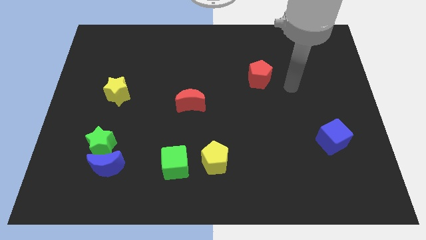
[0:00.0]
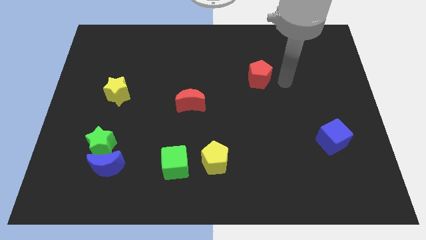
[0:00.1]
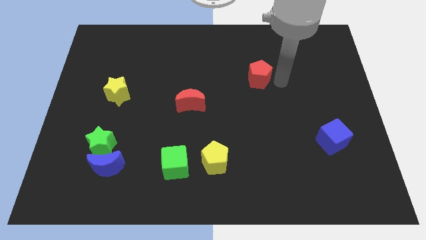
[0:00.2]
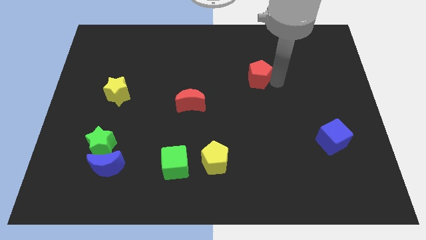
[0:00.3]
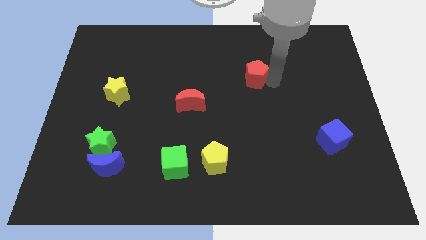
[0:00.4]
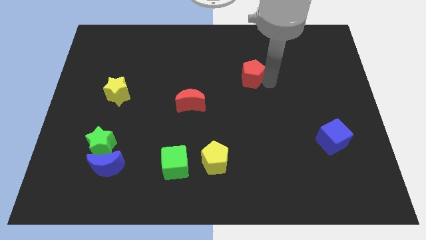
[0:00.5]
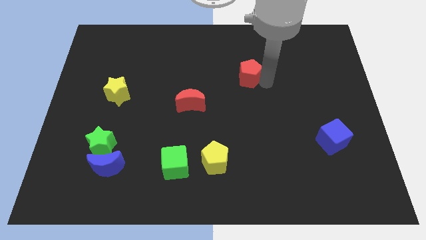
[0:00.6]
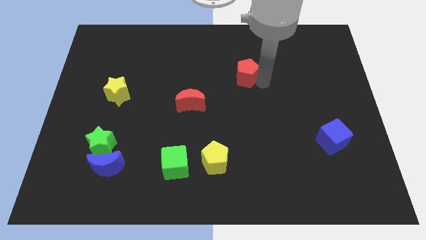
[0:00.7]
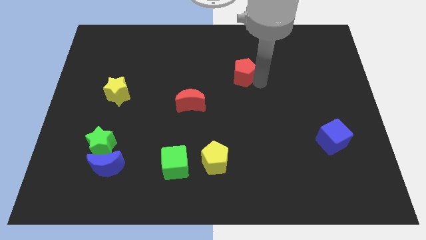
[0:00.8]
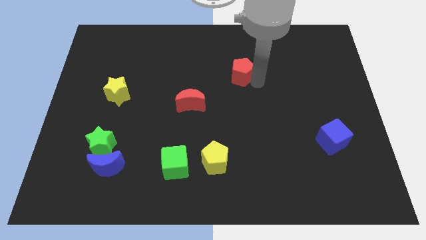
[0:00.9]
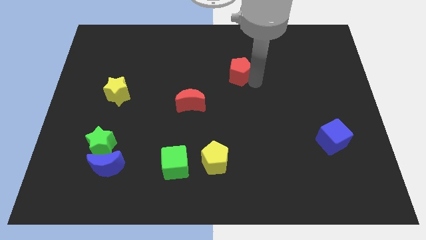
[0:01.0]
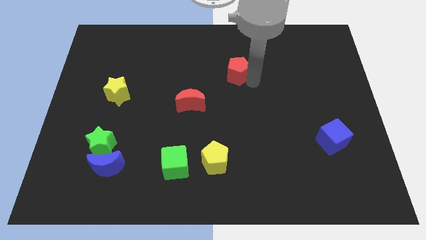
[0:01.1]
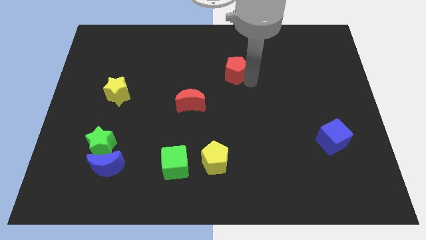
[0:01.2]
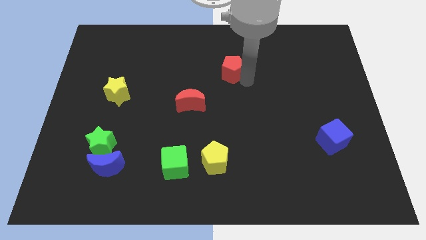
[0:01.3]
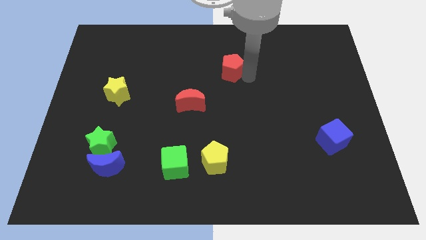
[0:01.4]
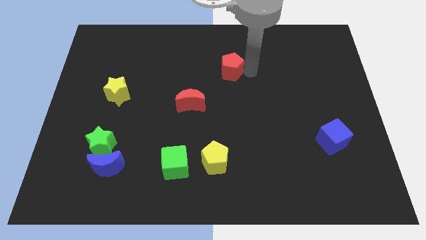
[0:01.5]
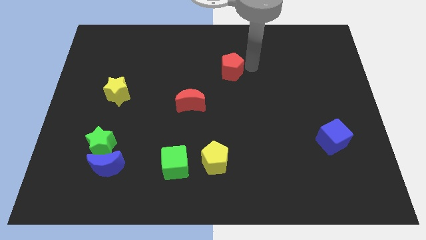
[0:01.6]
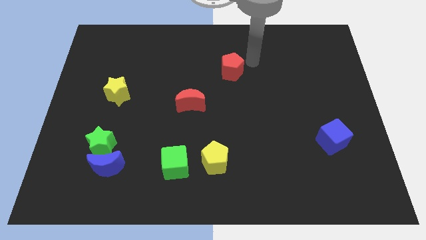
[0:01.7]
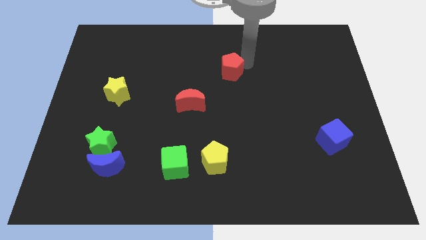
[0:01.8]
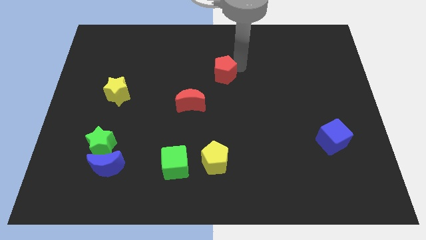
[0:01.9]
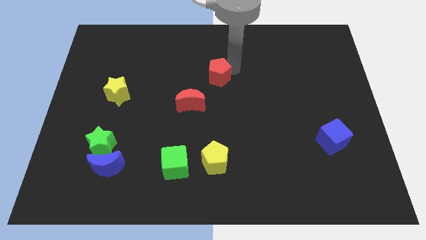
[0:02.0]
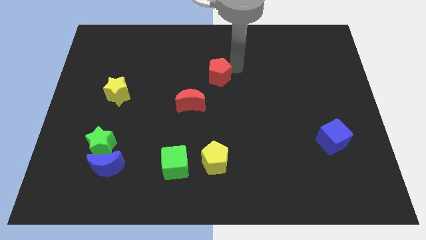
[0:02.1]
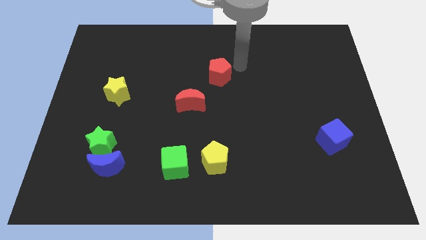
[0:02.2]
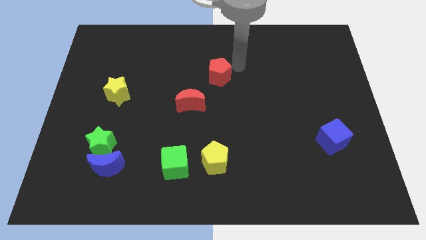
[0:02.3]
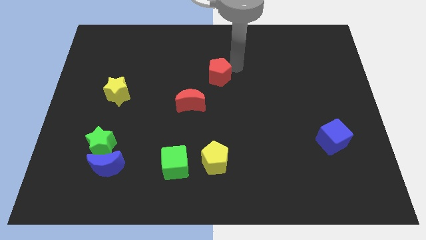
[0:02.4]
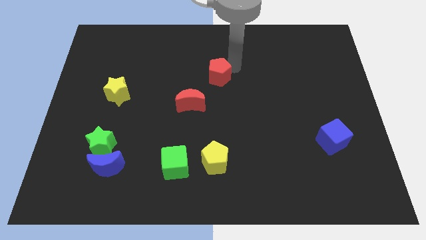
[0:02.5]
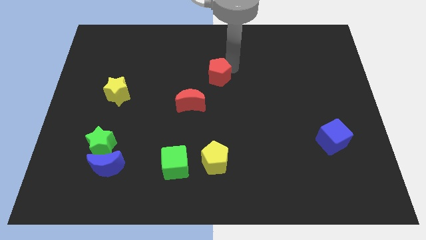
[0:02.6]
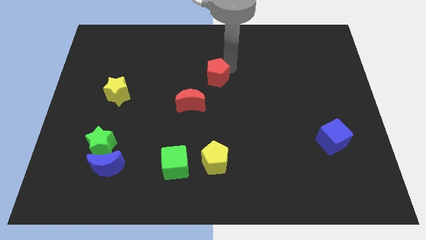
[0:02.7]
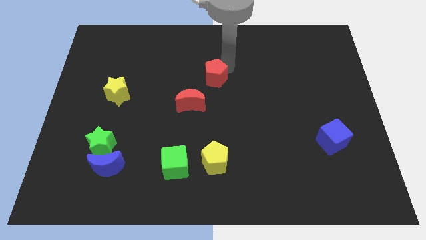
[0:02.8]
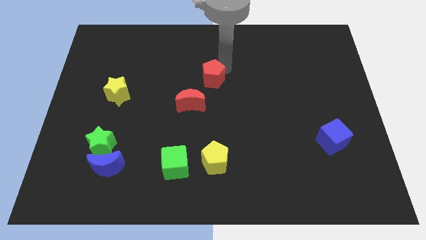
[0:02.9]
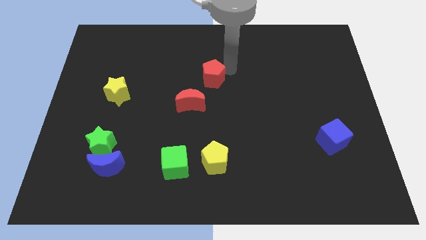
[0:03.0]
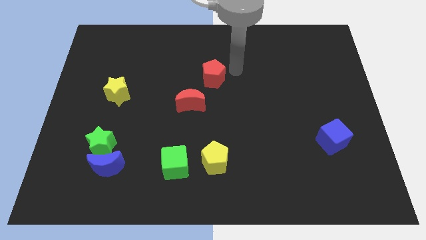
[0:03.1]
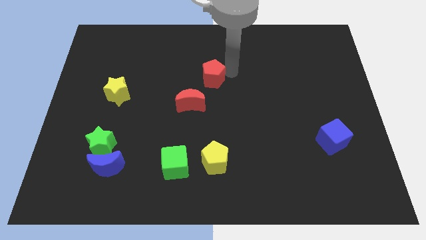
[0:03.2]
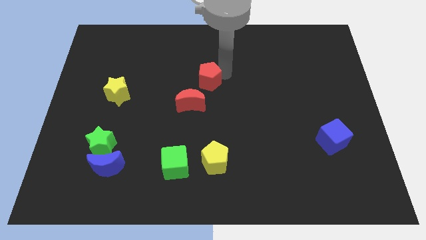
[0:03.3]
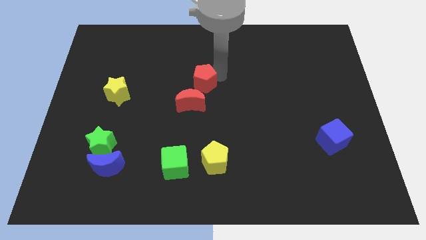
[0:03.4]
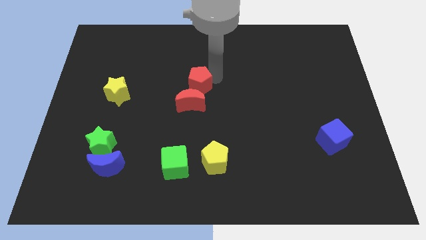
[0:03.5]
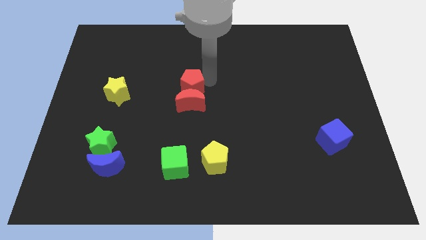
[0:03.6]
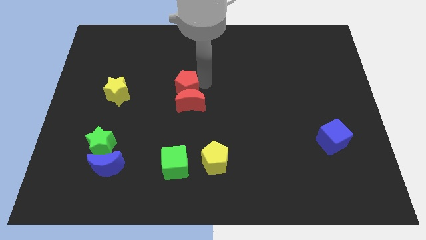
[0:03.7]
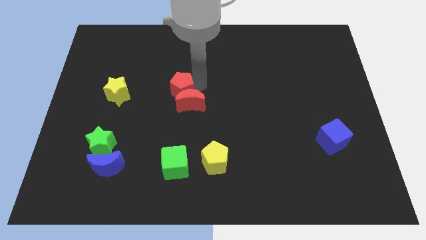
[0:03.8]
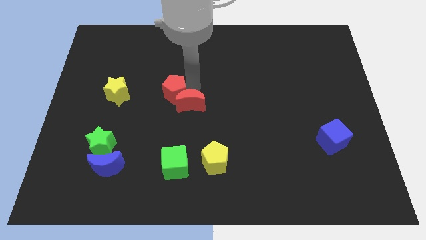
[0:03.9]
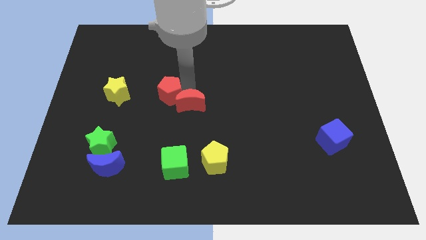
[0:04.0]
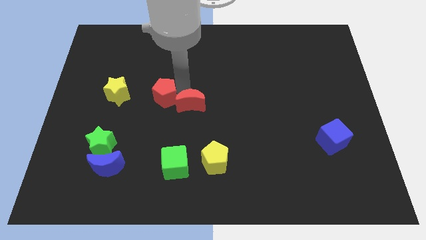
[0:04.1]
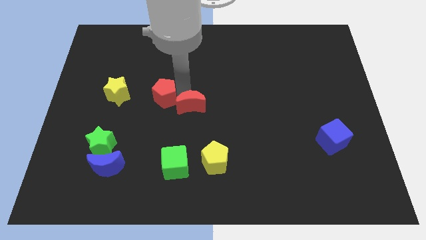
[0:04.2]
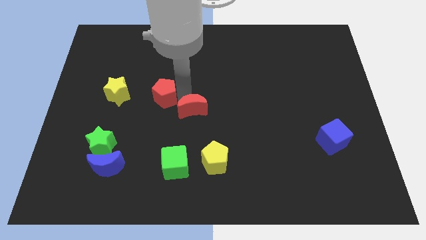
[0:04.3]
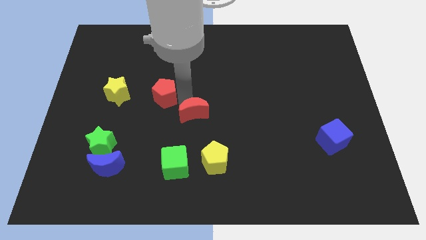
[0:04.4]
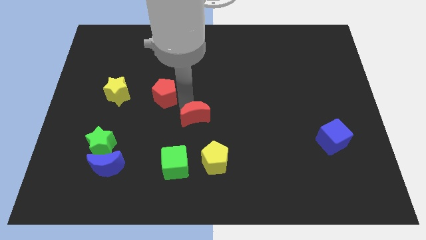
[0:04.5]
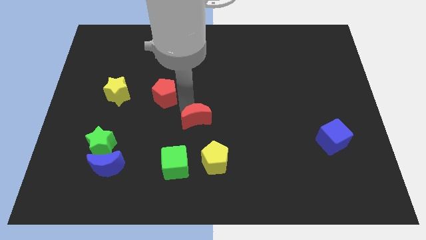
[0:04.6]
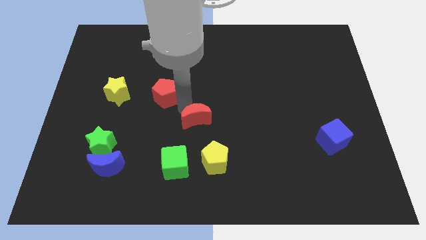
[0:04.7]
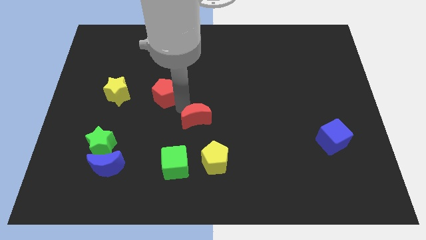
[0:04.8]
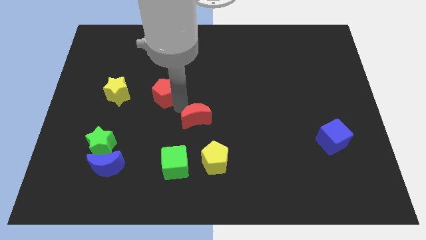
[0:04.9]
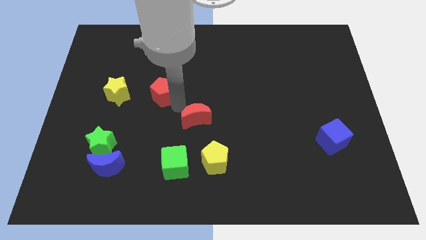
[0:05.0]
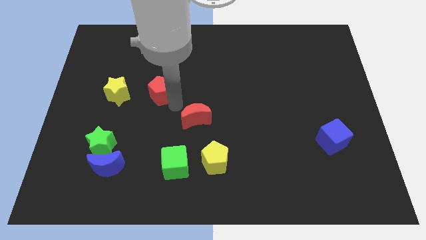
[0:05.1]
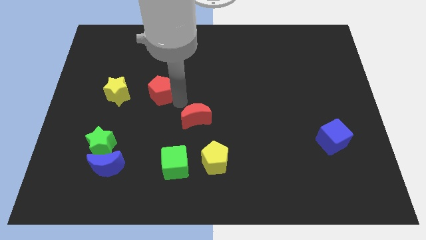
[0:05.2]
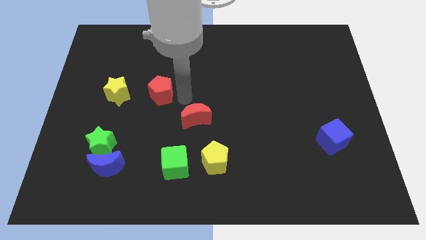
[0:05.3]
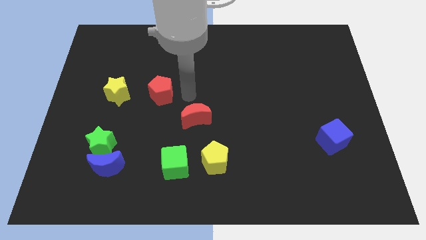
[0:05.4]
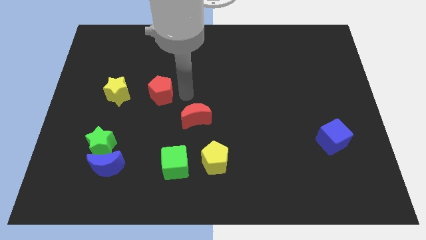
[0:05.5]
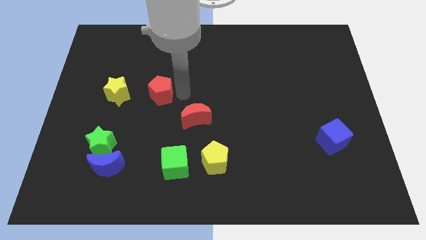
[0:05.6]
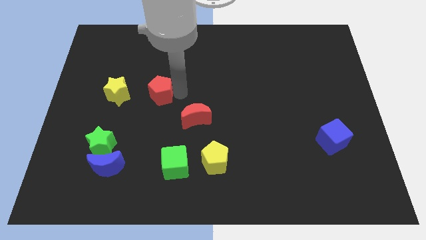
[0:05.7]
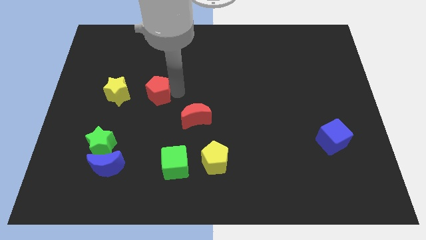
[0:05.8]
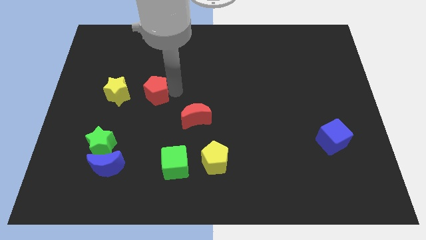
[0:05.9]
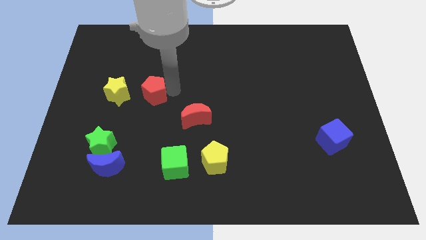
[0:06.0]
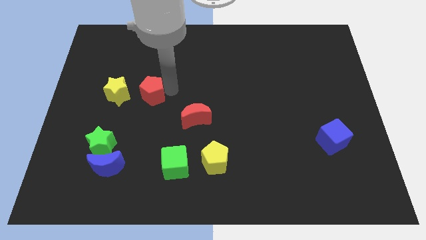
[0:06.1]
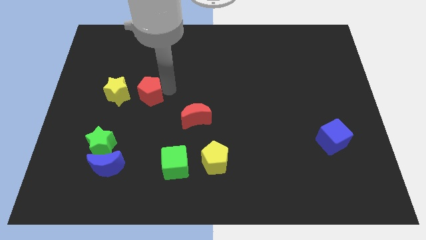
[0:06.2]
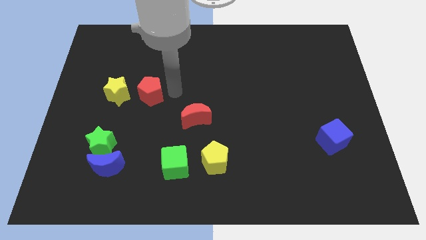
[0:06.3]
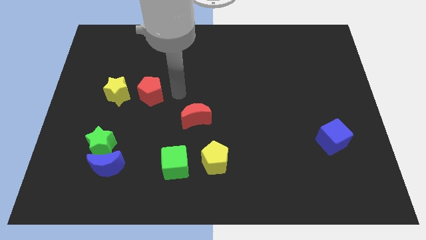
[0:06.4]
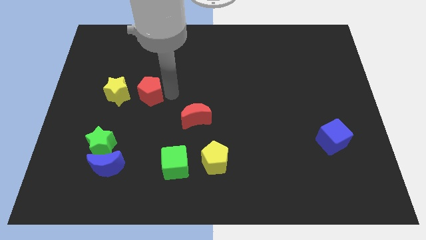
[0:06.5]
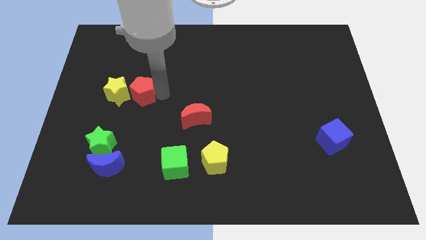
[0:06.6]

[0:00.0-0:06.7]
push the red pentagon close to the yellow star

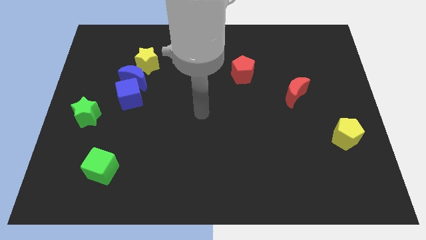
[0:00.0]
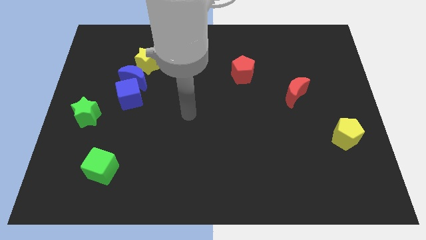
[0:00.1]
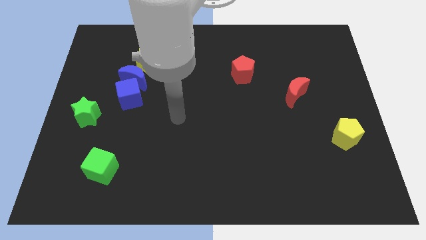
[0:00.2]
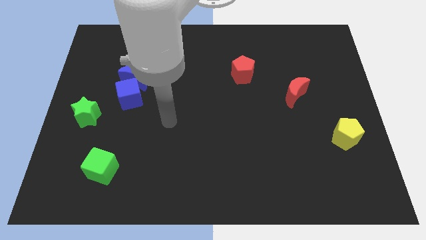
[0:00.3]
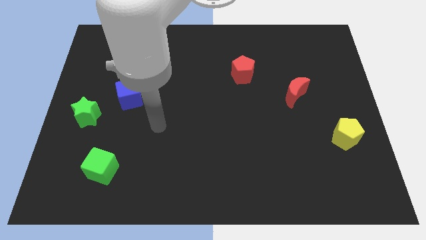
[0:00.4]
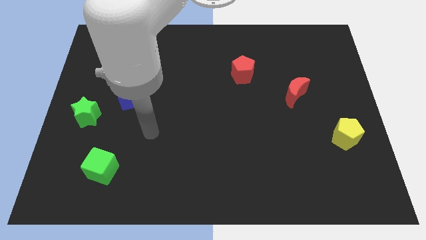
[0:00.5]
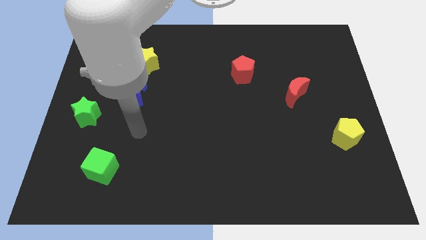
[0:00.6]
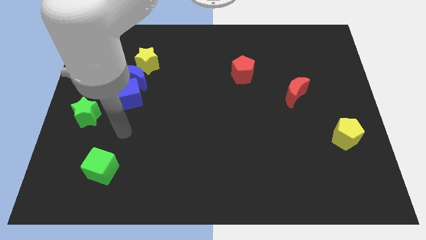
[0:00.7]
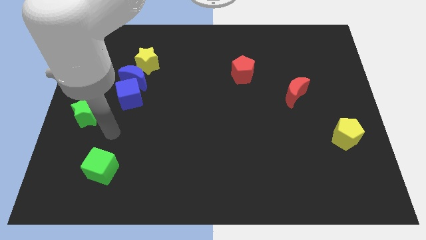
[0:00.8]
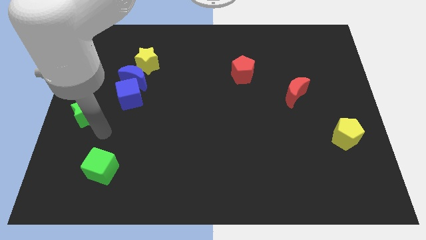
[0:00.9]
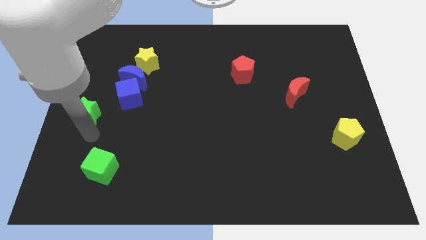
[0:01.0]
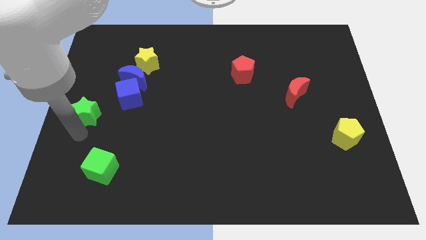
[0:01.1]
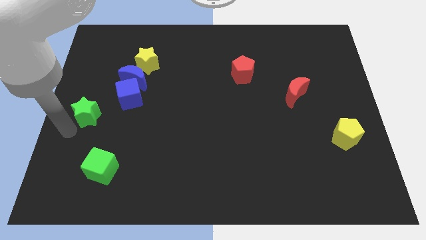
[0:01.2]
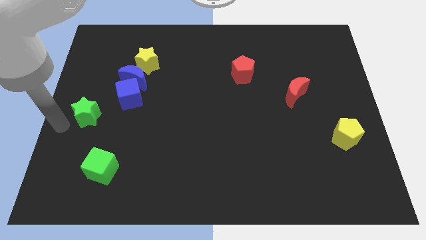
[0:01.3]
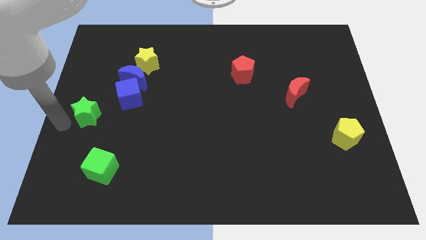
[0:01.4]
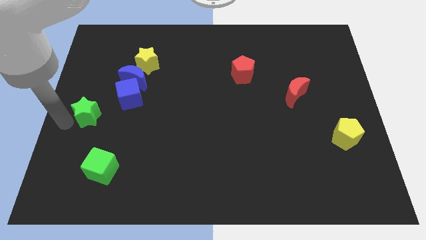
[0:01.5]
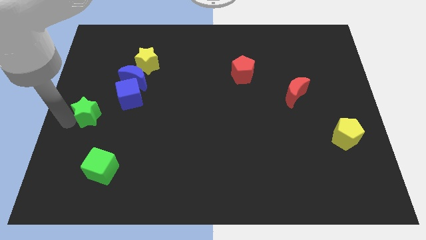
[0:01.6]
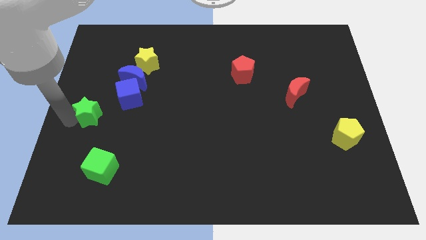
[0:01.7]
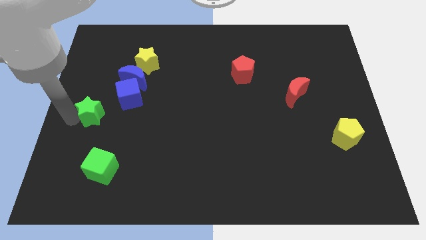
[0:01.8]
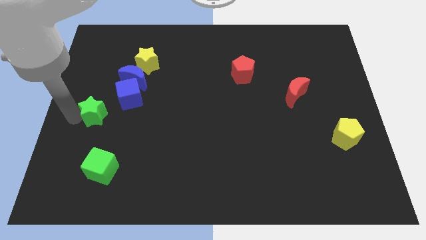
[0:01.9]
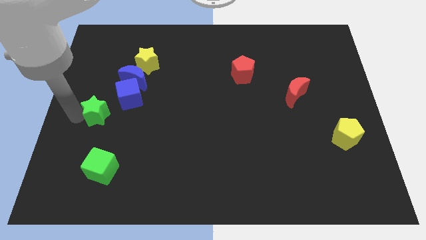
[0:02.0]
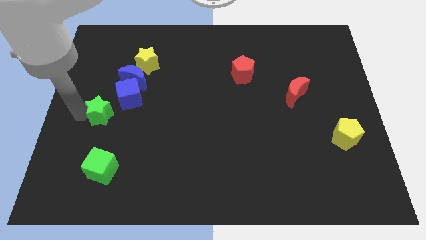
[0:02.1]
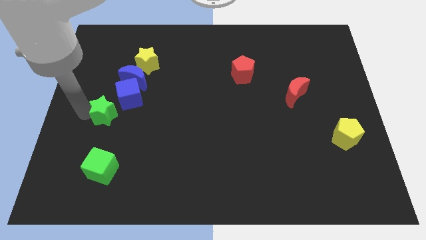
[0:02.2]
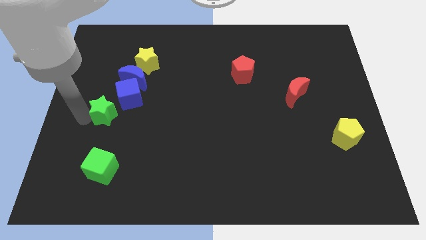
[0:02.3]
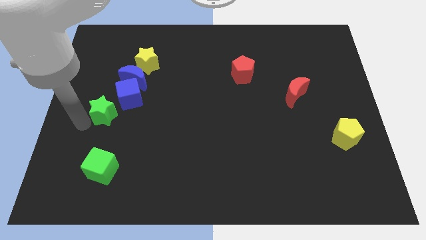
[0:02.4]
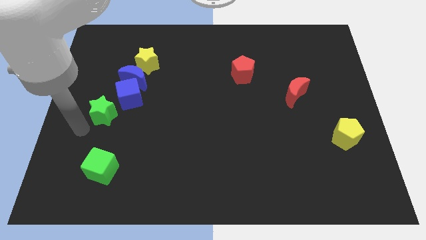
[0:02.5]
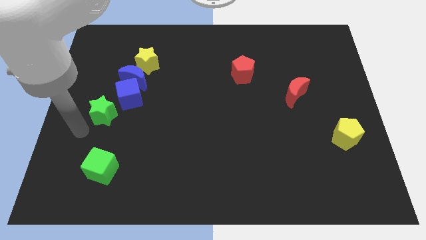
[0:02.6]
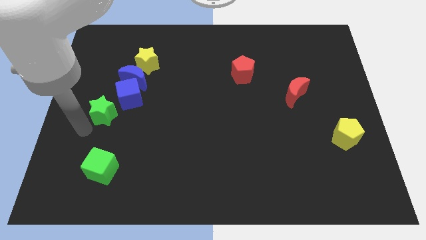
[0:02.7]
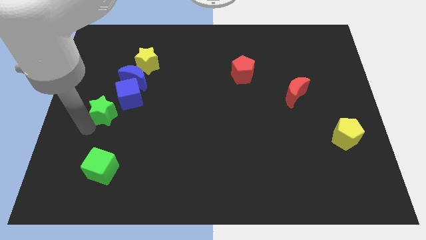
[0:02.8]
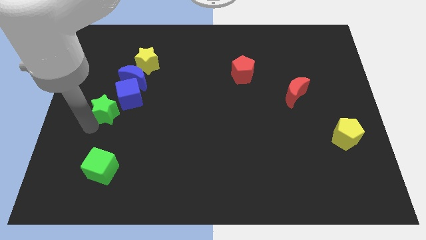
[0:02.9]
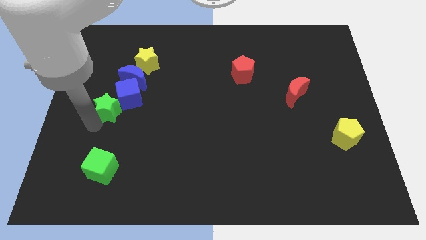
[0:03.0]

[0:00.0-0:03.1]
move the green star next to the blue cube
